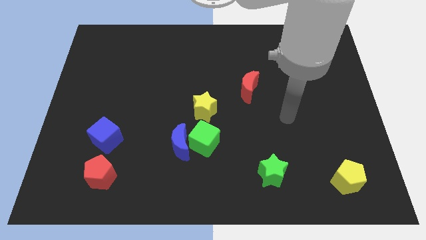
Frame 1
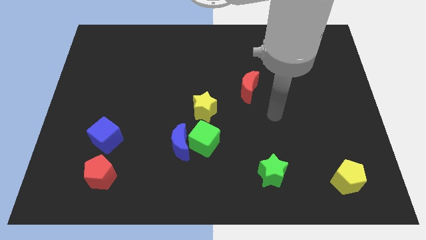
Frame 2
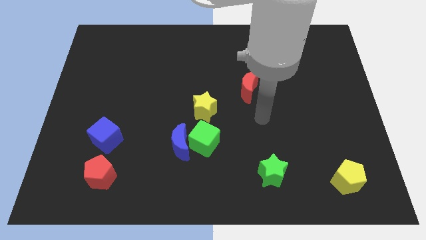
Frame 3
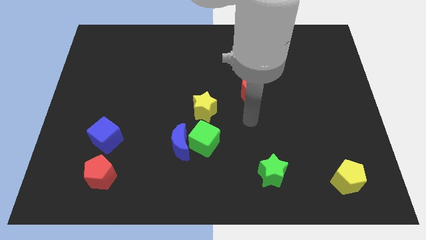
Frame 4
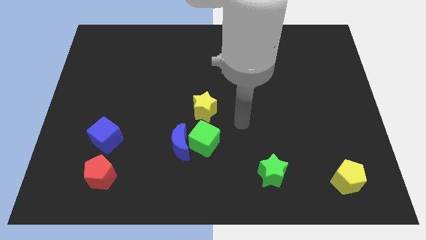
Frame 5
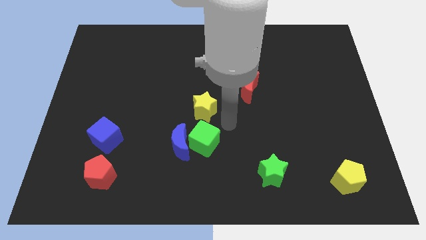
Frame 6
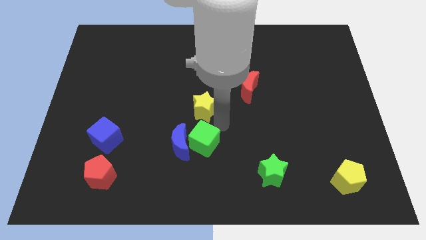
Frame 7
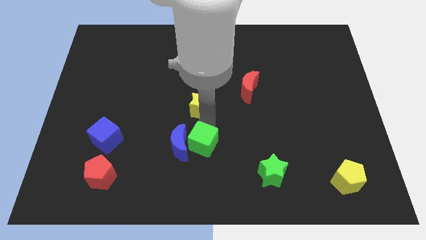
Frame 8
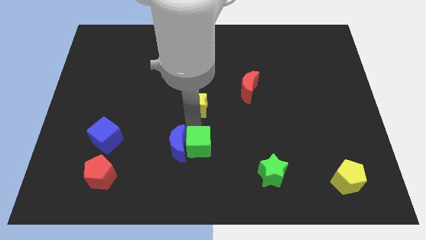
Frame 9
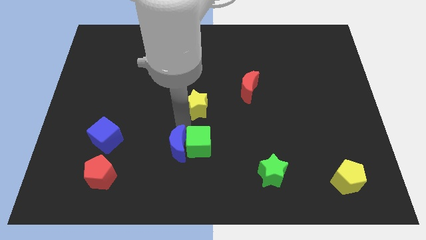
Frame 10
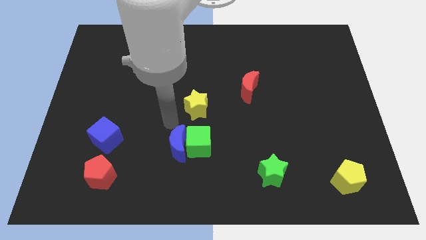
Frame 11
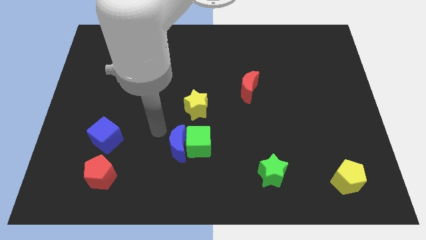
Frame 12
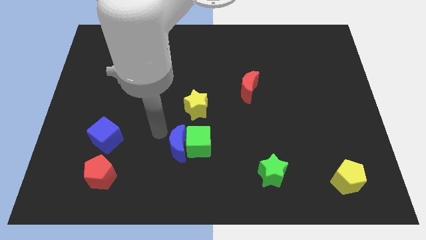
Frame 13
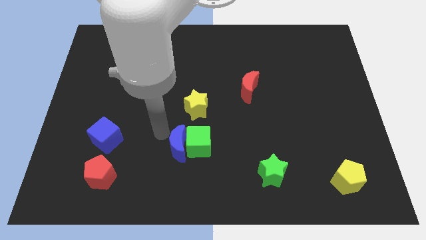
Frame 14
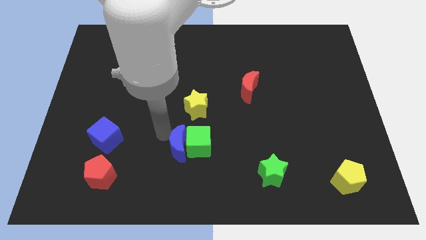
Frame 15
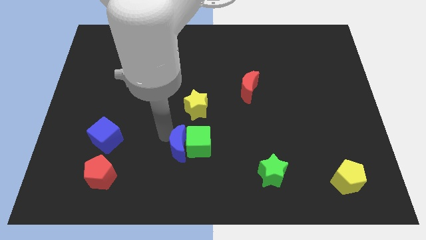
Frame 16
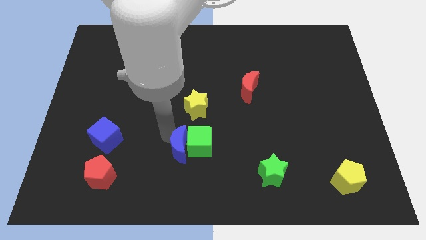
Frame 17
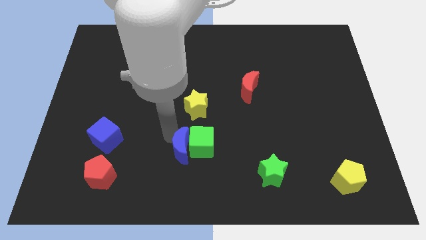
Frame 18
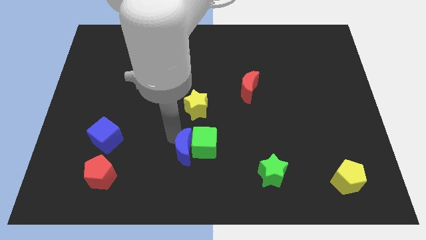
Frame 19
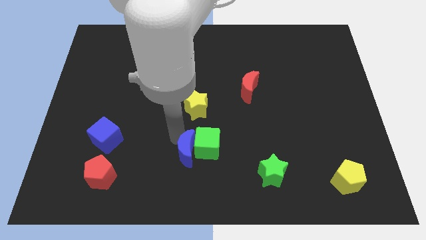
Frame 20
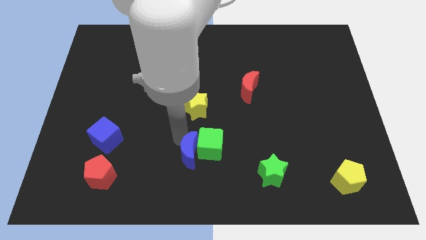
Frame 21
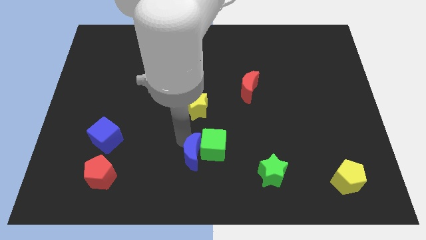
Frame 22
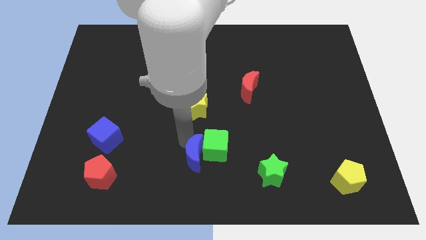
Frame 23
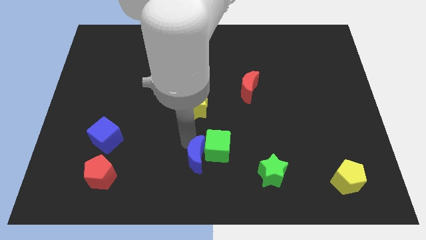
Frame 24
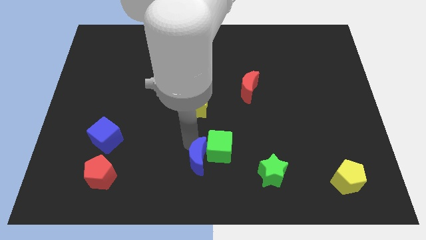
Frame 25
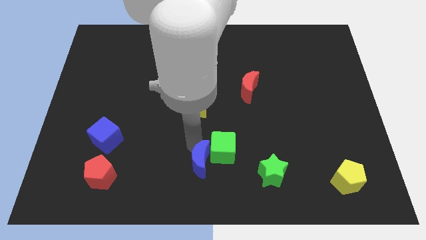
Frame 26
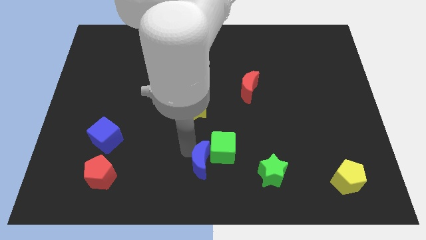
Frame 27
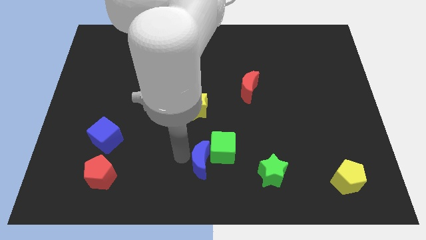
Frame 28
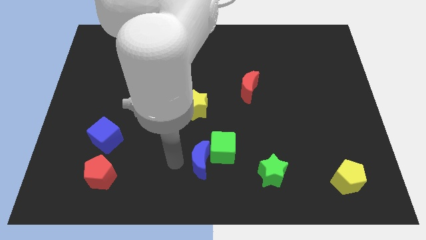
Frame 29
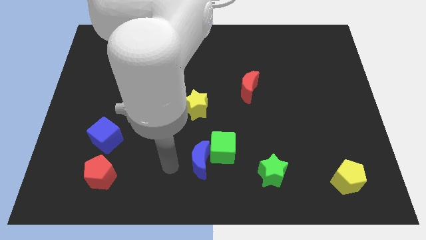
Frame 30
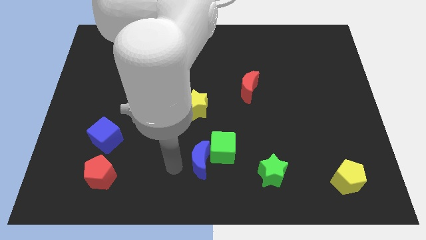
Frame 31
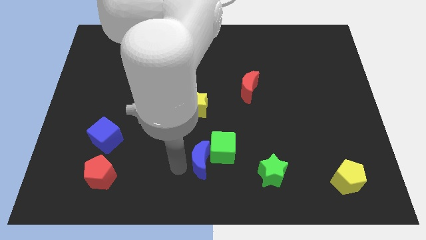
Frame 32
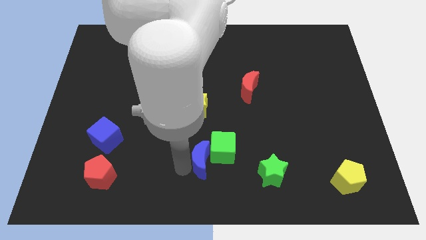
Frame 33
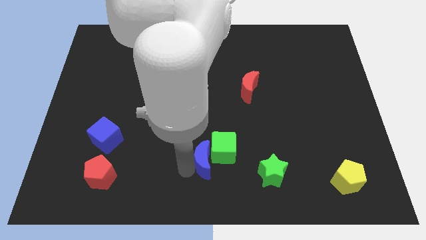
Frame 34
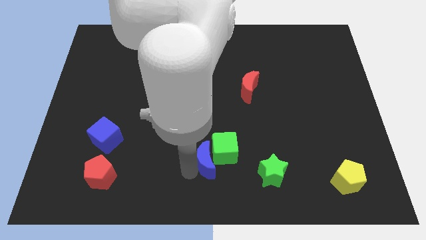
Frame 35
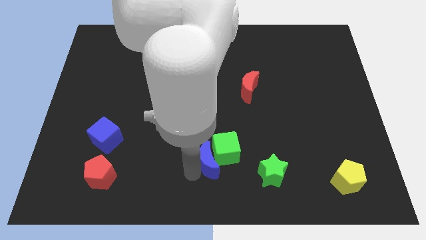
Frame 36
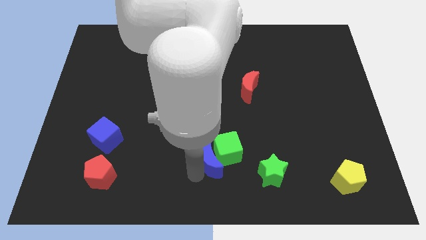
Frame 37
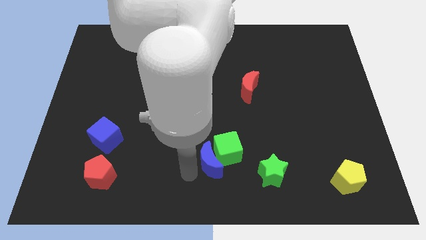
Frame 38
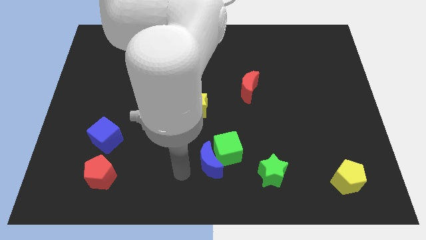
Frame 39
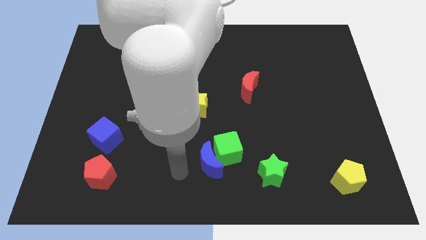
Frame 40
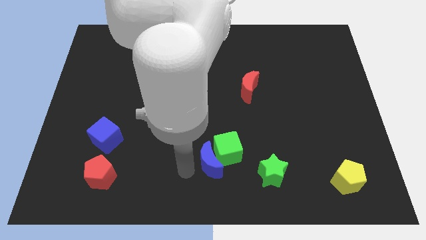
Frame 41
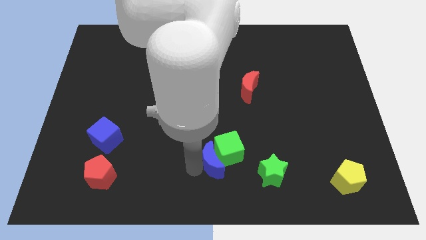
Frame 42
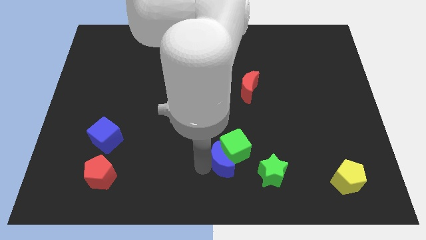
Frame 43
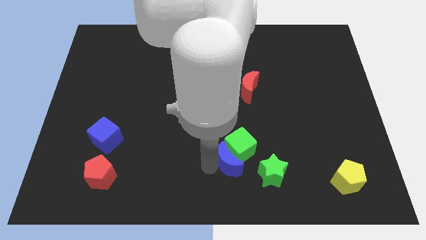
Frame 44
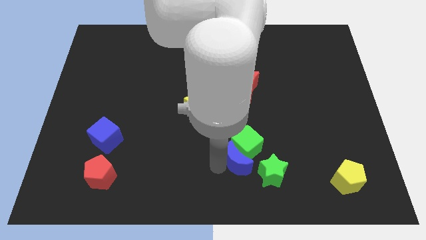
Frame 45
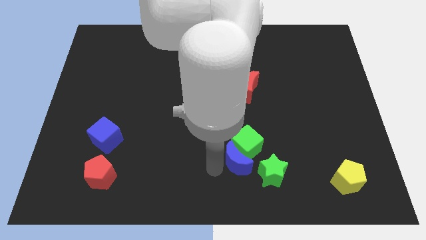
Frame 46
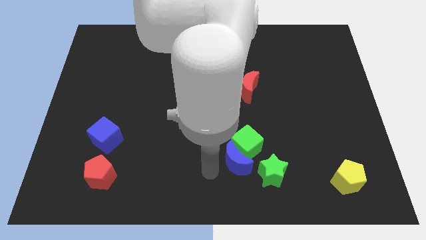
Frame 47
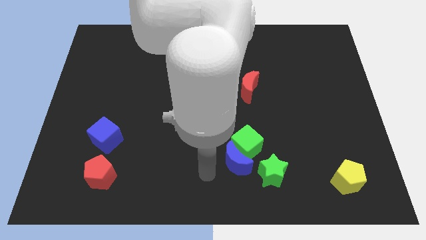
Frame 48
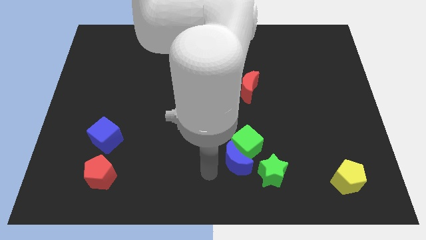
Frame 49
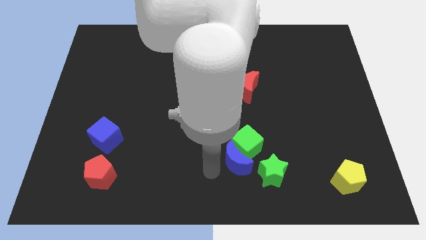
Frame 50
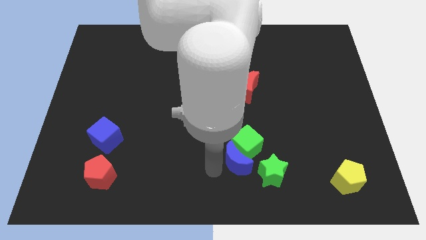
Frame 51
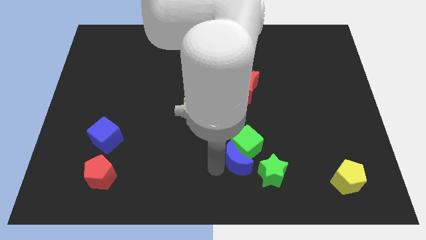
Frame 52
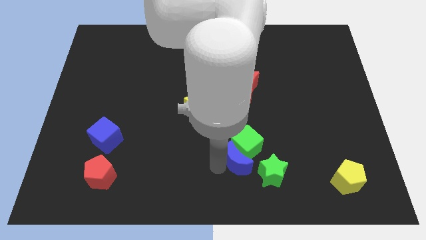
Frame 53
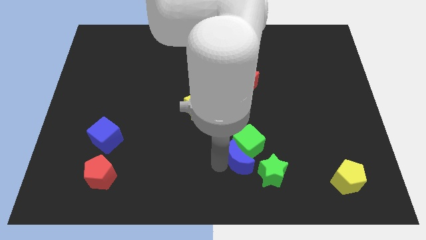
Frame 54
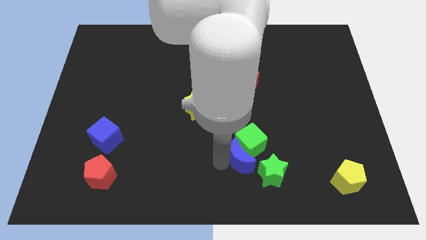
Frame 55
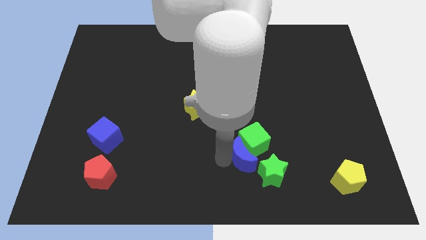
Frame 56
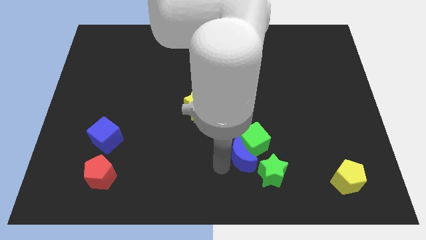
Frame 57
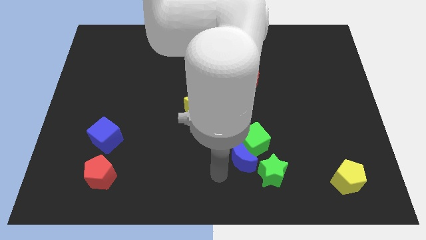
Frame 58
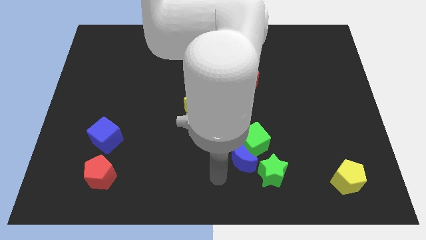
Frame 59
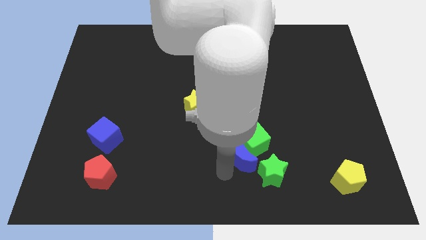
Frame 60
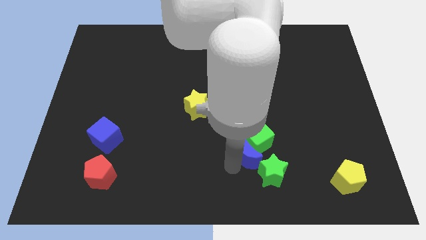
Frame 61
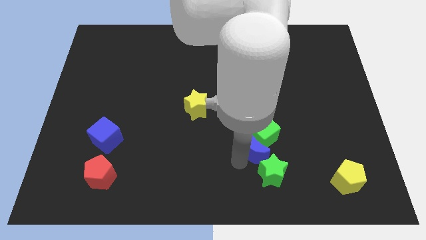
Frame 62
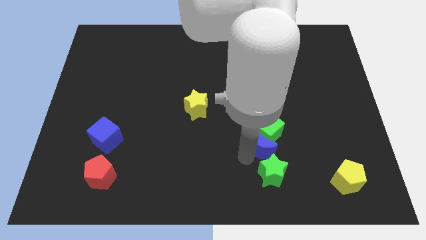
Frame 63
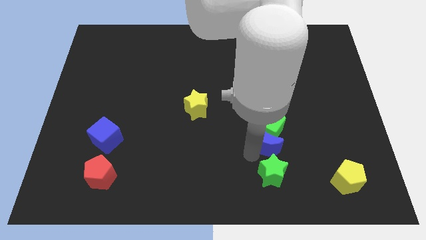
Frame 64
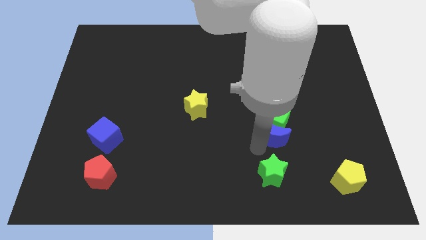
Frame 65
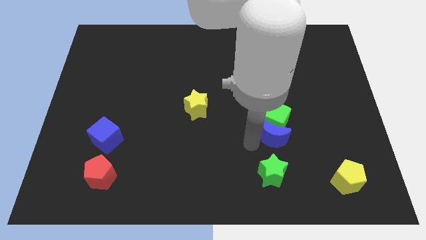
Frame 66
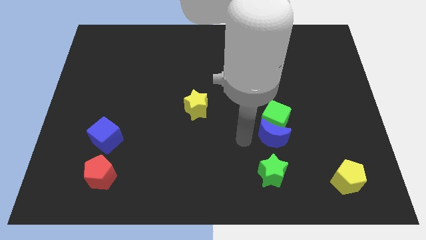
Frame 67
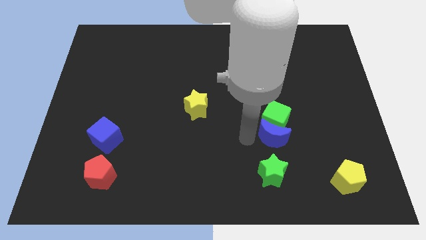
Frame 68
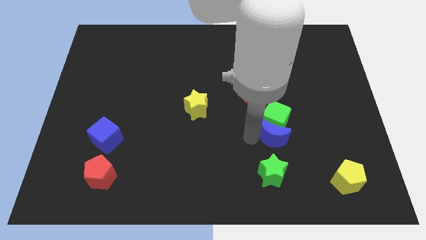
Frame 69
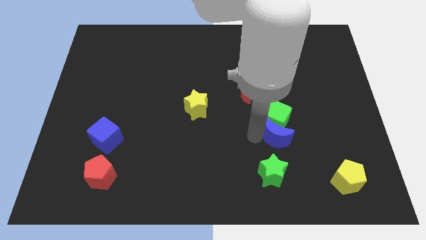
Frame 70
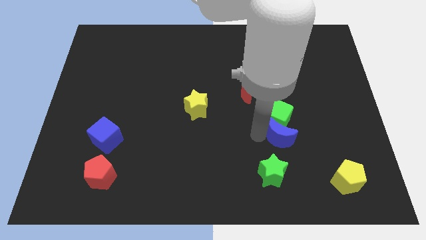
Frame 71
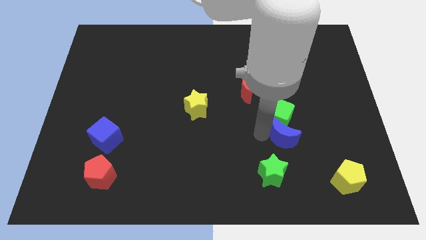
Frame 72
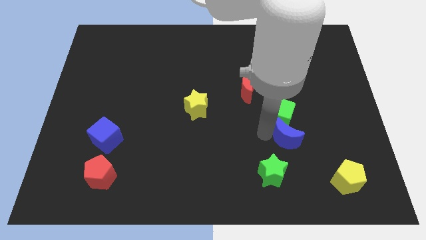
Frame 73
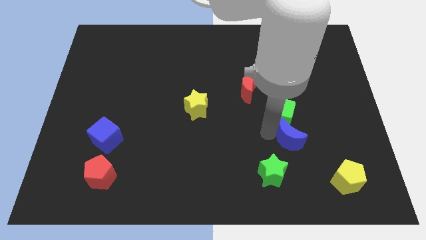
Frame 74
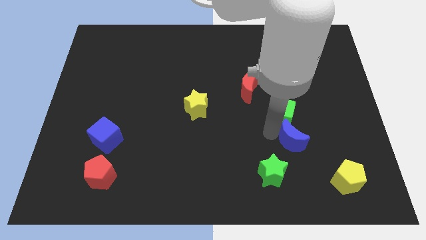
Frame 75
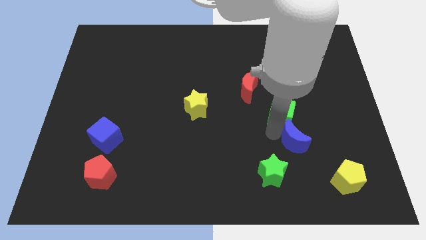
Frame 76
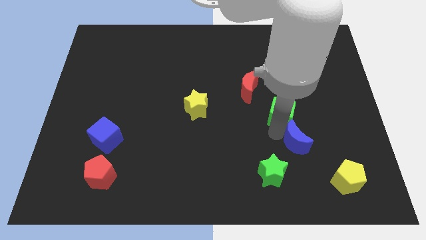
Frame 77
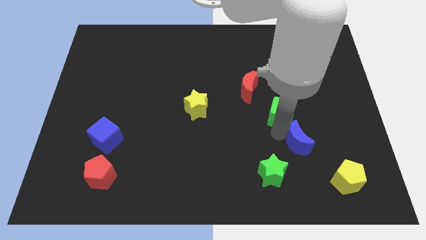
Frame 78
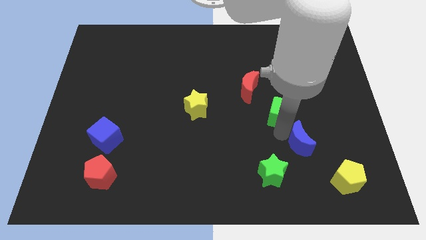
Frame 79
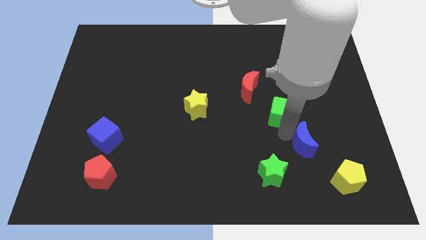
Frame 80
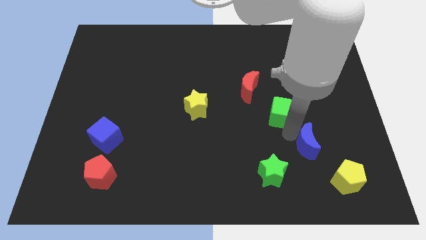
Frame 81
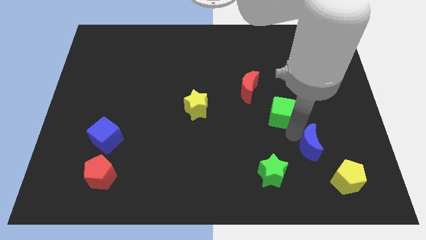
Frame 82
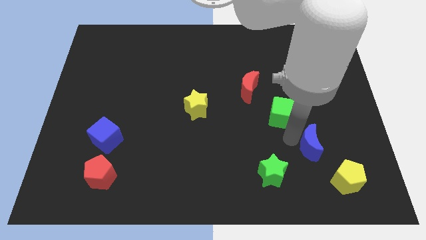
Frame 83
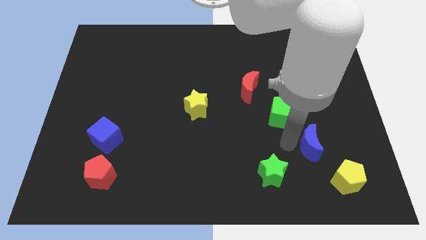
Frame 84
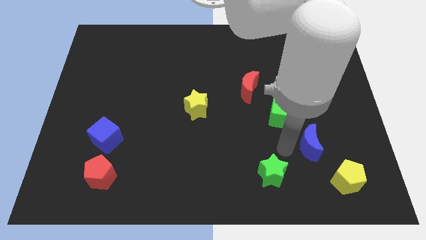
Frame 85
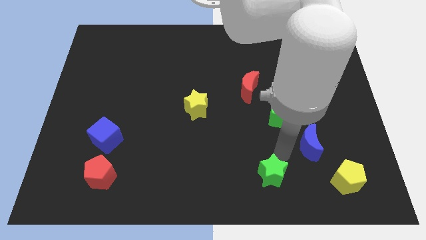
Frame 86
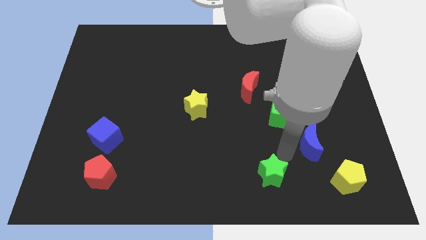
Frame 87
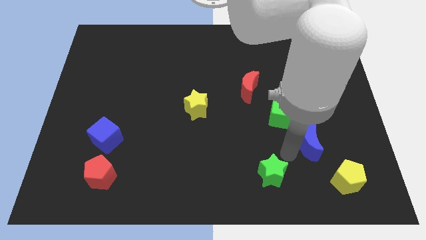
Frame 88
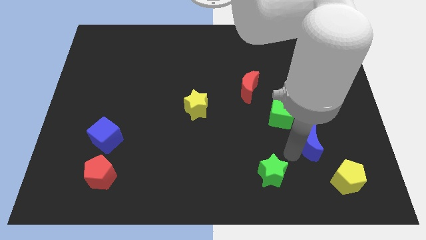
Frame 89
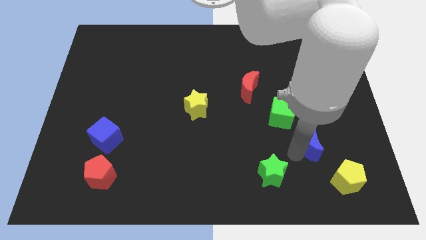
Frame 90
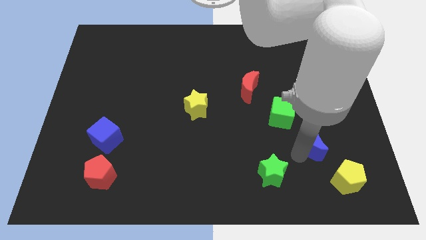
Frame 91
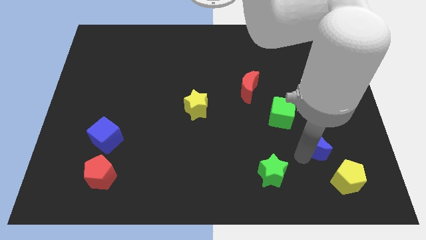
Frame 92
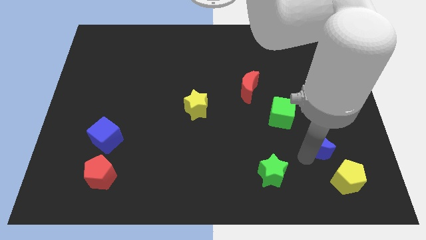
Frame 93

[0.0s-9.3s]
put the blue moon to the top side of the yellow pentagon
